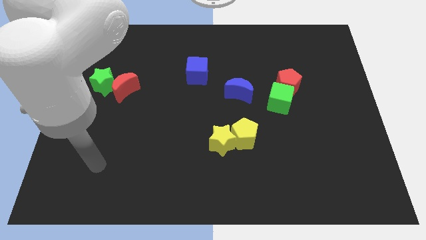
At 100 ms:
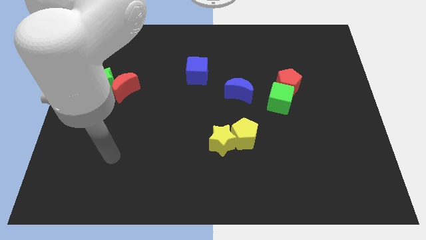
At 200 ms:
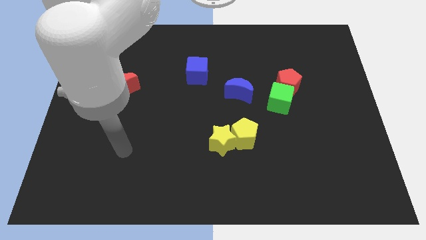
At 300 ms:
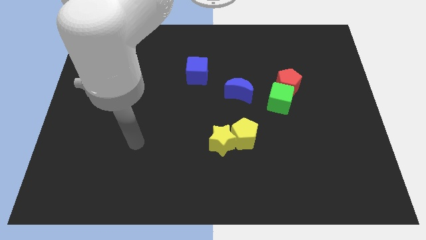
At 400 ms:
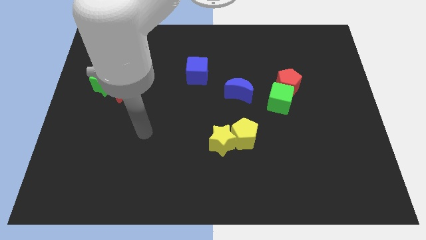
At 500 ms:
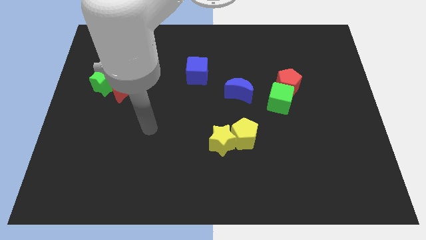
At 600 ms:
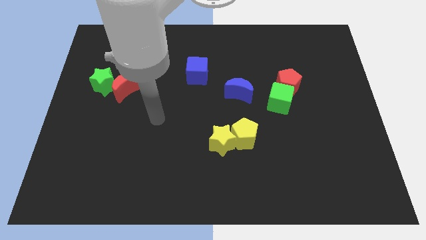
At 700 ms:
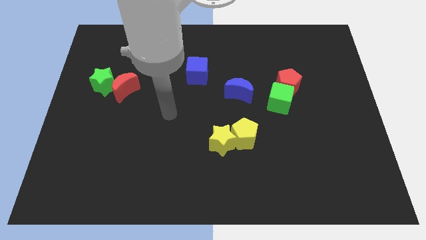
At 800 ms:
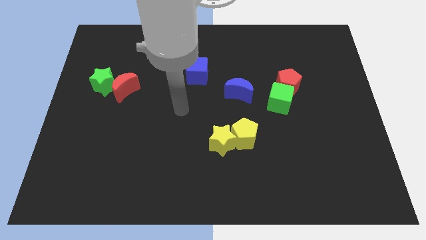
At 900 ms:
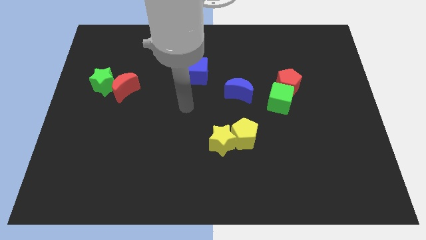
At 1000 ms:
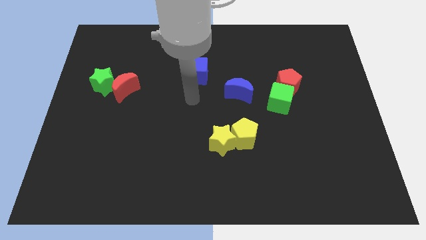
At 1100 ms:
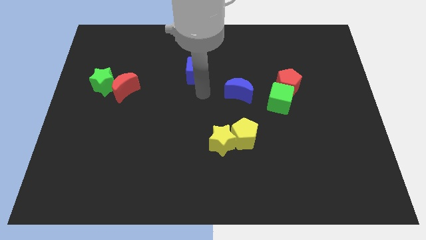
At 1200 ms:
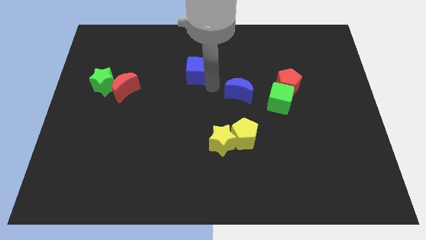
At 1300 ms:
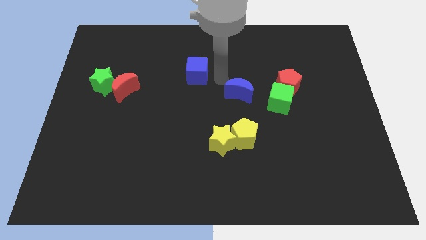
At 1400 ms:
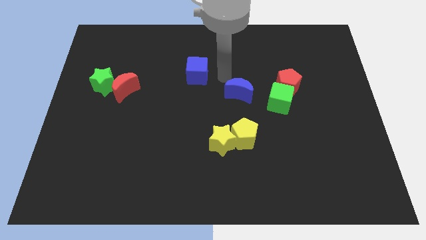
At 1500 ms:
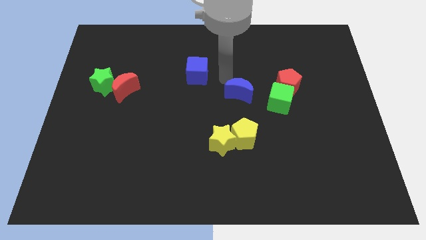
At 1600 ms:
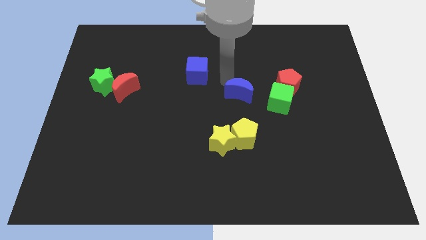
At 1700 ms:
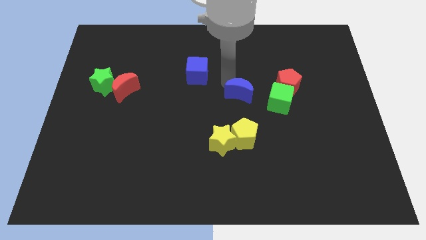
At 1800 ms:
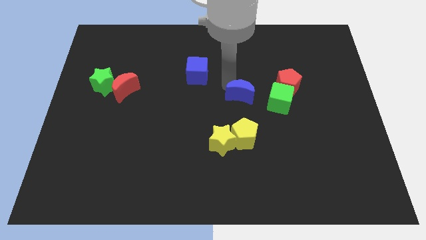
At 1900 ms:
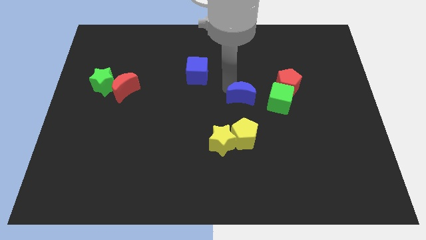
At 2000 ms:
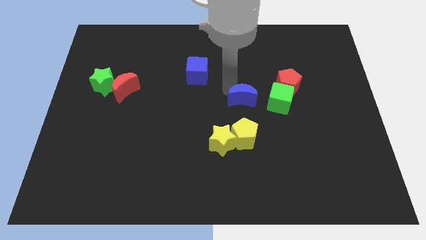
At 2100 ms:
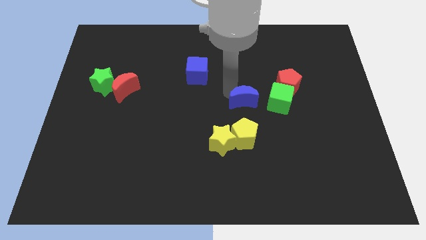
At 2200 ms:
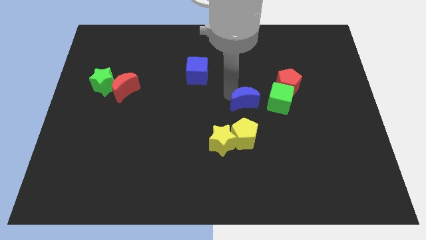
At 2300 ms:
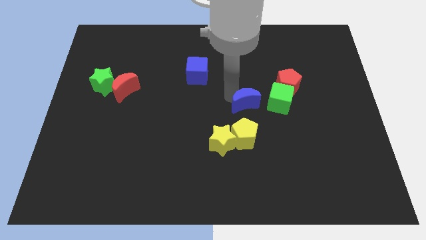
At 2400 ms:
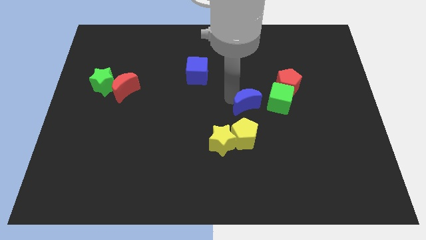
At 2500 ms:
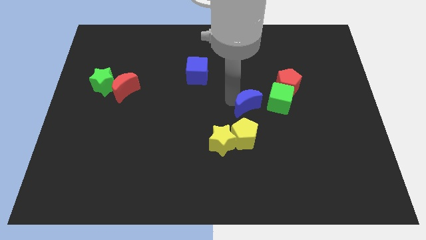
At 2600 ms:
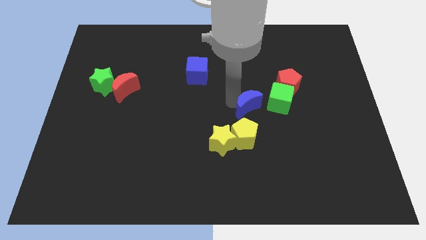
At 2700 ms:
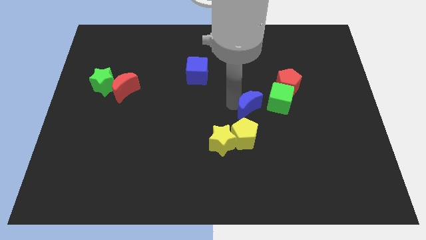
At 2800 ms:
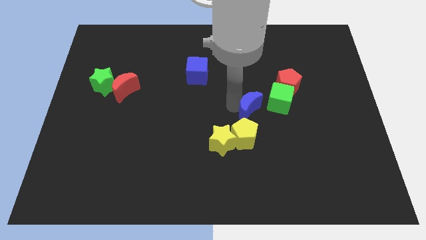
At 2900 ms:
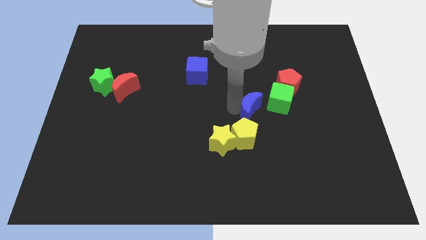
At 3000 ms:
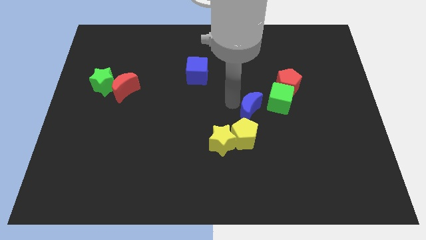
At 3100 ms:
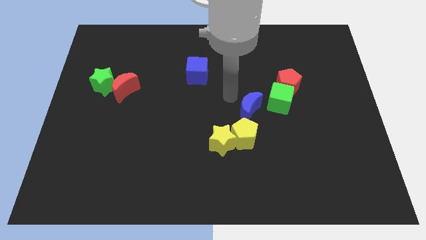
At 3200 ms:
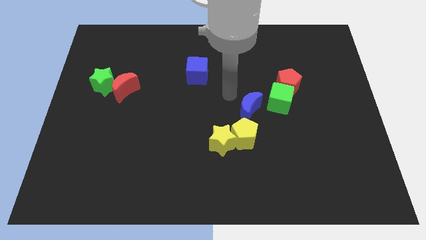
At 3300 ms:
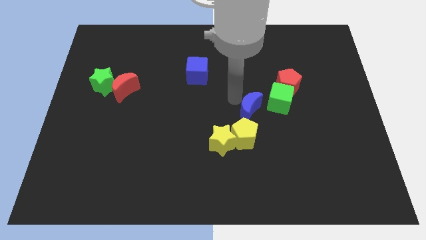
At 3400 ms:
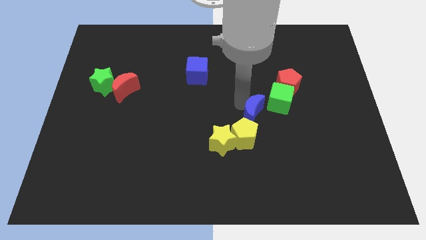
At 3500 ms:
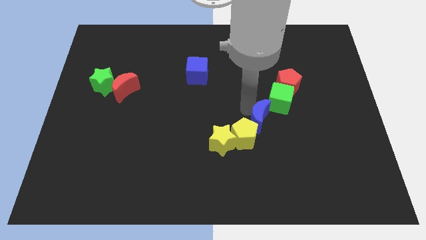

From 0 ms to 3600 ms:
slightly slide the blue moon down and to the right

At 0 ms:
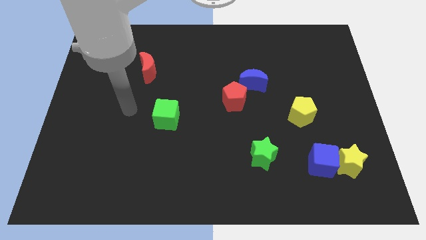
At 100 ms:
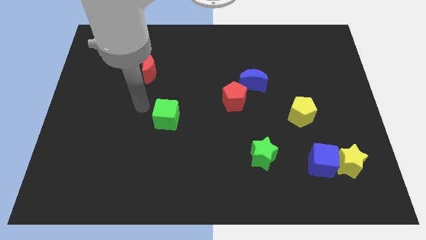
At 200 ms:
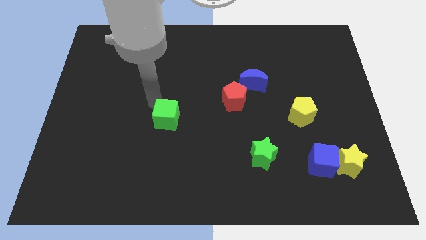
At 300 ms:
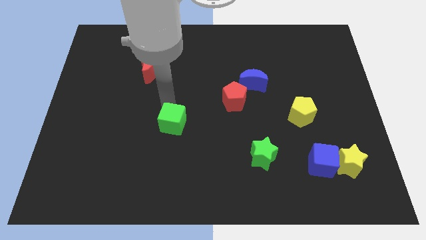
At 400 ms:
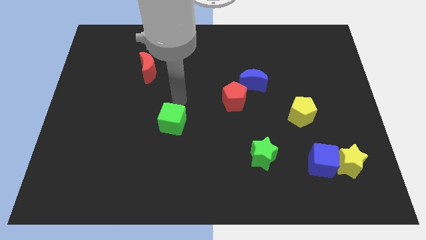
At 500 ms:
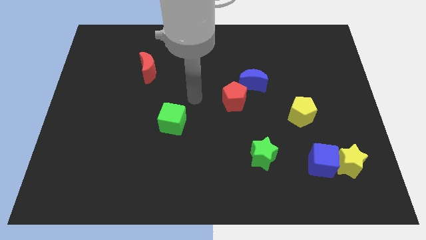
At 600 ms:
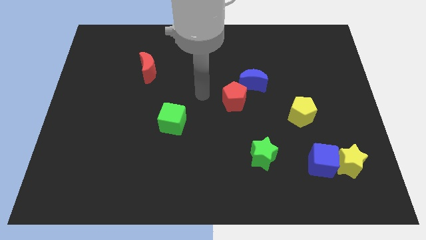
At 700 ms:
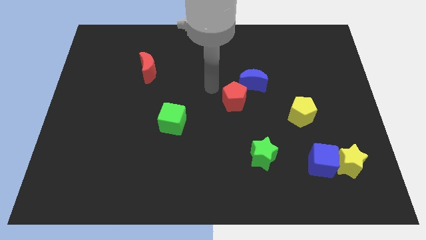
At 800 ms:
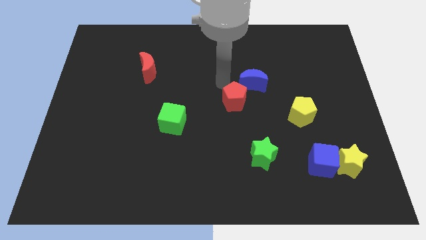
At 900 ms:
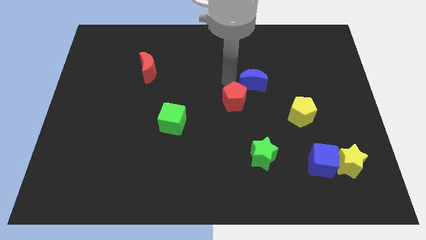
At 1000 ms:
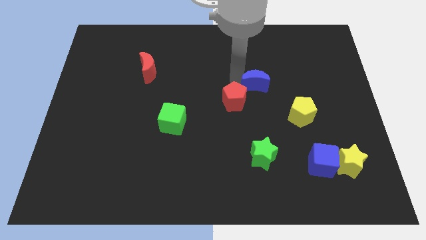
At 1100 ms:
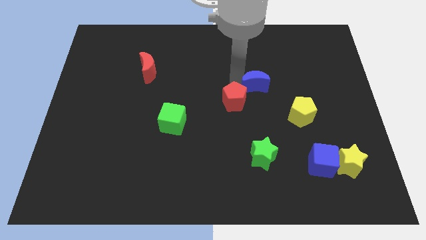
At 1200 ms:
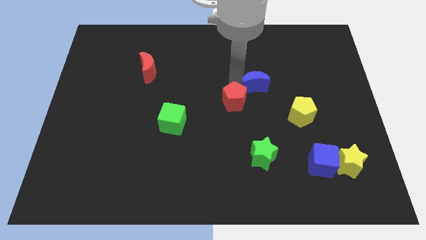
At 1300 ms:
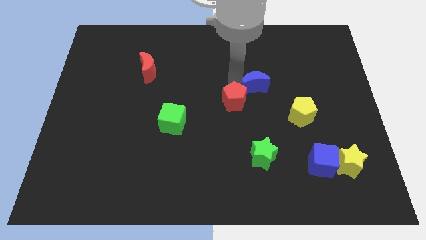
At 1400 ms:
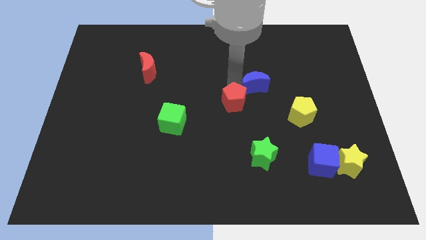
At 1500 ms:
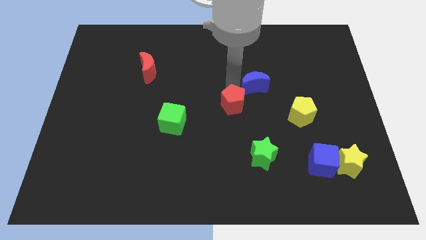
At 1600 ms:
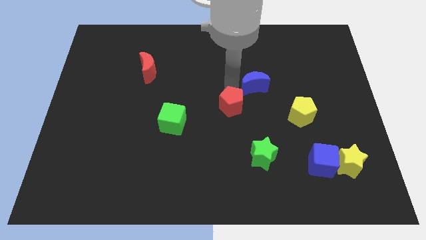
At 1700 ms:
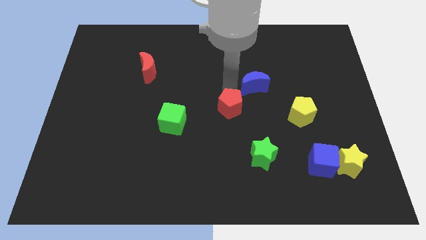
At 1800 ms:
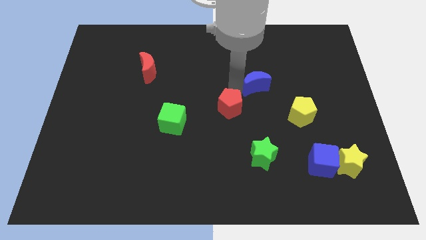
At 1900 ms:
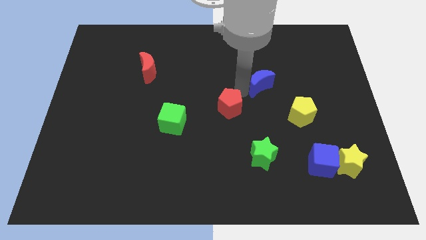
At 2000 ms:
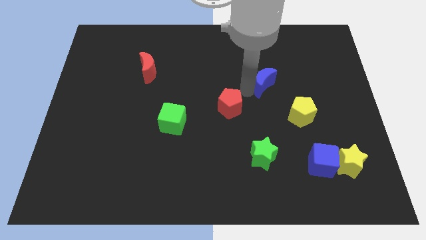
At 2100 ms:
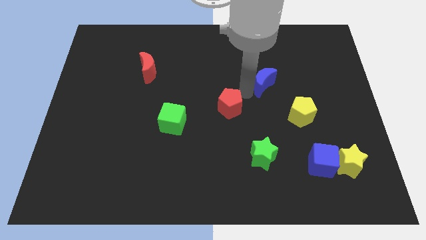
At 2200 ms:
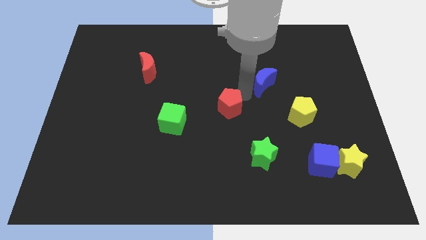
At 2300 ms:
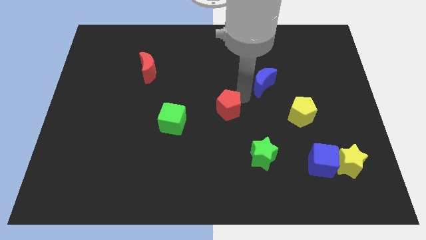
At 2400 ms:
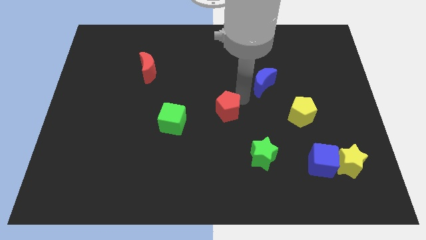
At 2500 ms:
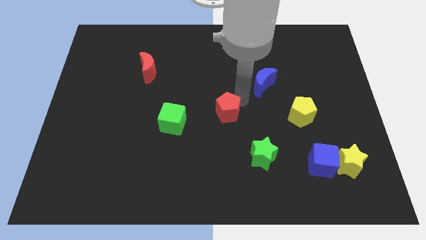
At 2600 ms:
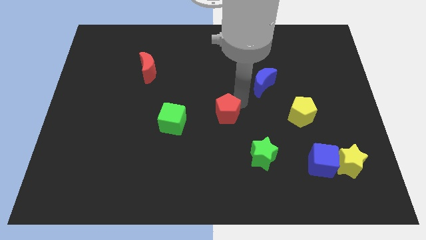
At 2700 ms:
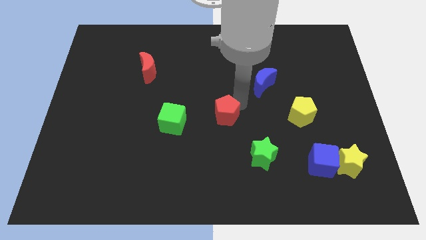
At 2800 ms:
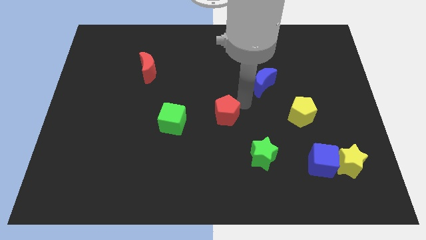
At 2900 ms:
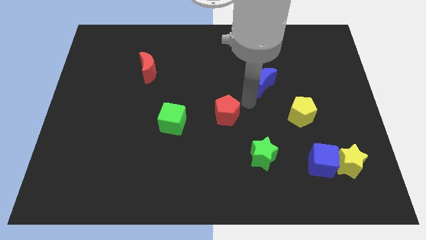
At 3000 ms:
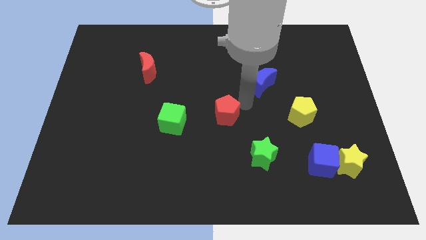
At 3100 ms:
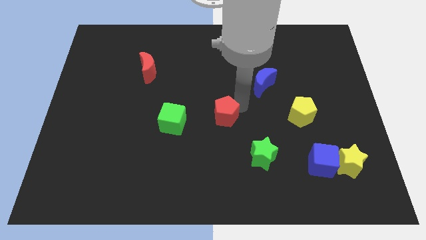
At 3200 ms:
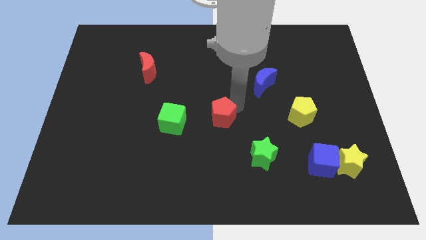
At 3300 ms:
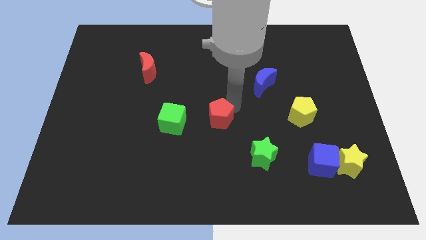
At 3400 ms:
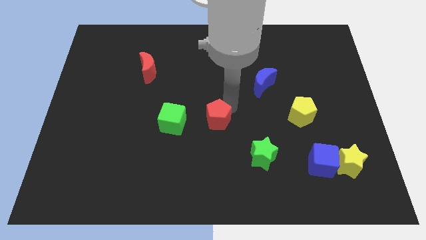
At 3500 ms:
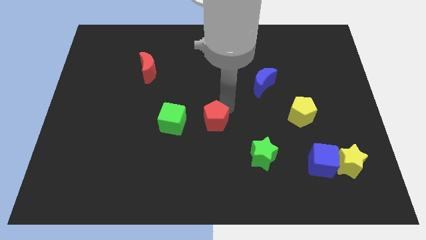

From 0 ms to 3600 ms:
push the red pentagon diagonally down and left a little bit

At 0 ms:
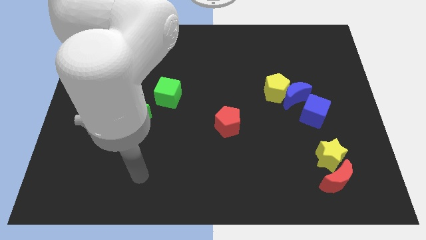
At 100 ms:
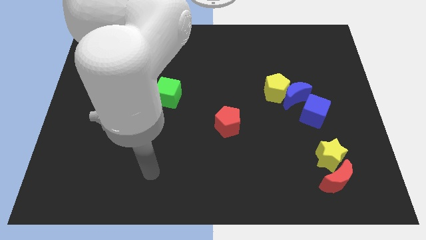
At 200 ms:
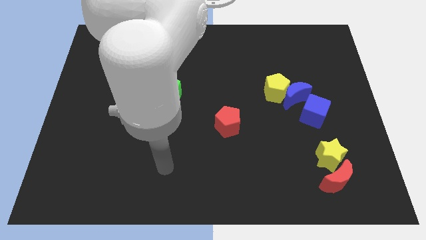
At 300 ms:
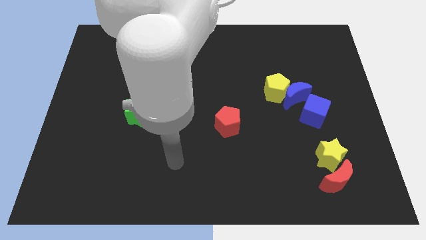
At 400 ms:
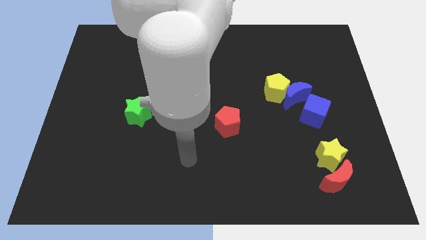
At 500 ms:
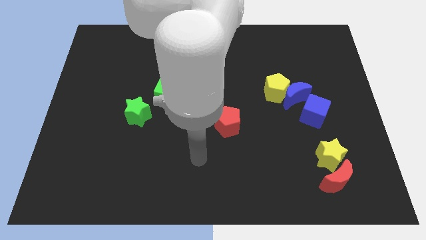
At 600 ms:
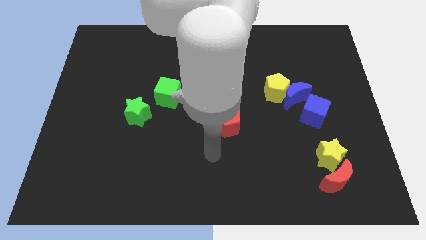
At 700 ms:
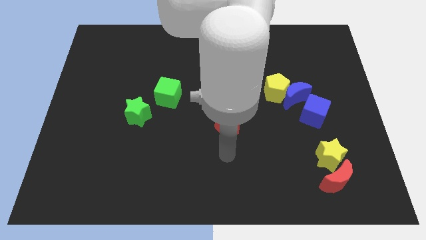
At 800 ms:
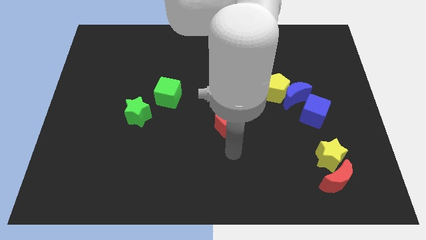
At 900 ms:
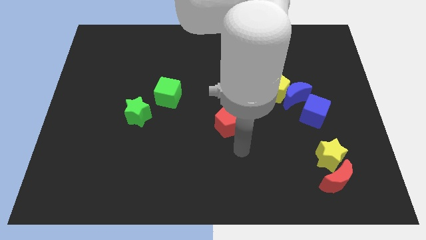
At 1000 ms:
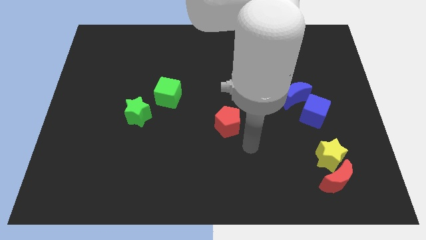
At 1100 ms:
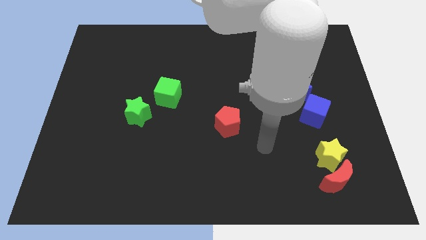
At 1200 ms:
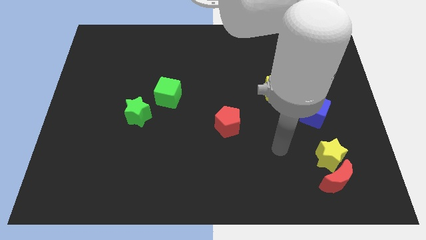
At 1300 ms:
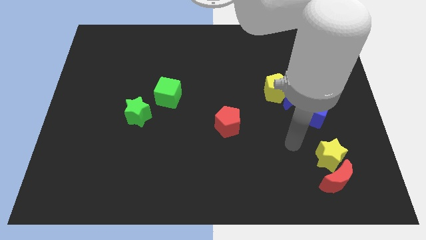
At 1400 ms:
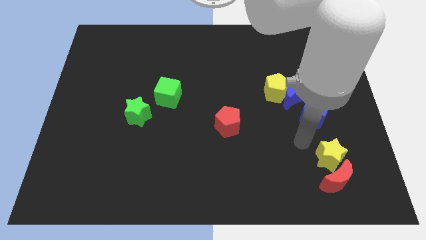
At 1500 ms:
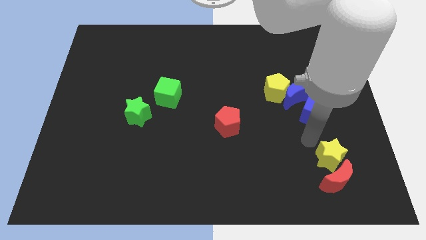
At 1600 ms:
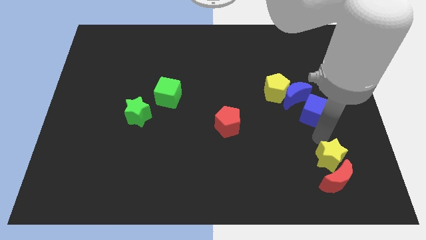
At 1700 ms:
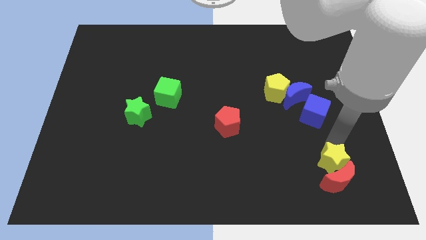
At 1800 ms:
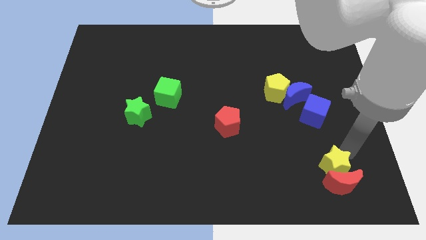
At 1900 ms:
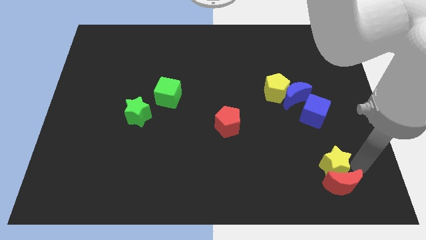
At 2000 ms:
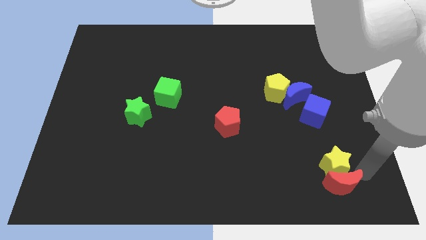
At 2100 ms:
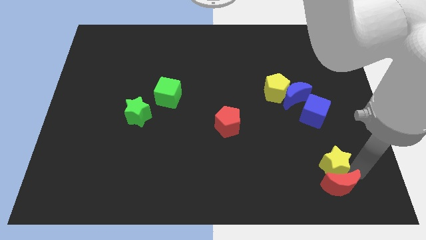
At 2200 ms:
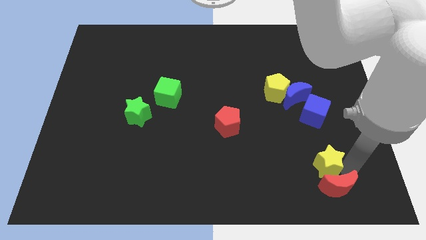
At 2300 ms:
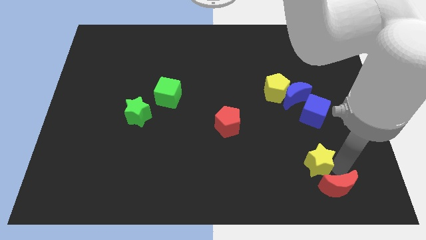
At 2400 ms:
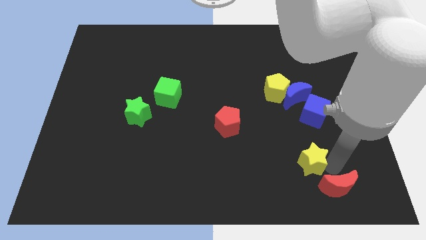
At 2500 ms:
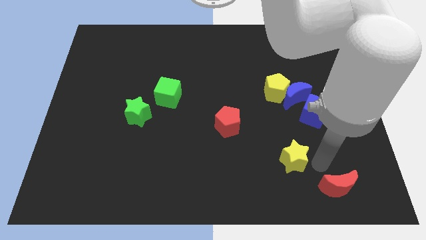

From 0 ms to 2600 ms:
slightly move the yellow star to the left
